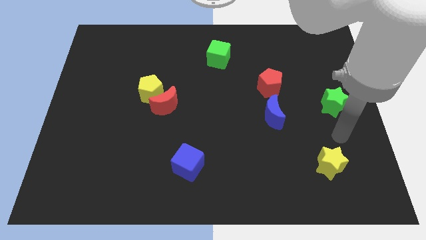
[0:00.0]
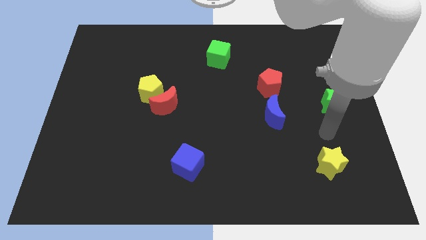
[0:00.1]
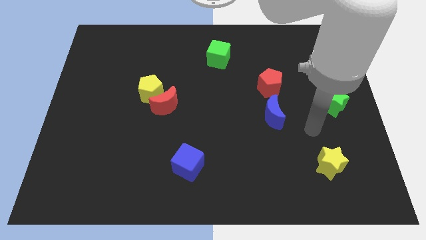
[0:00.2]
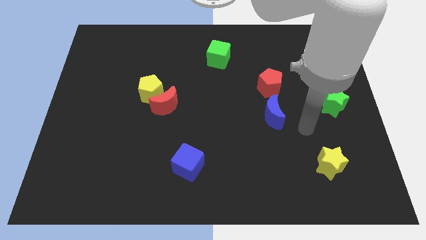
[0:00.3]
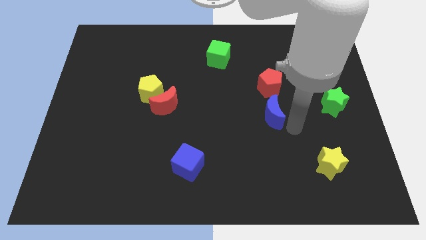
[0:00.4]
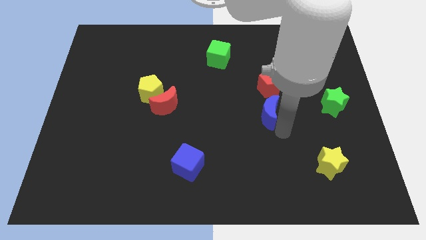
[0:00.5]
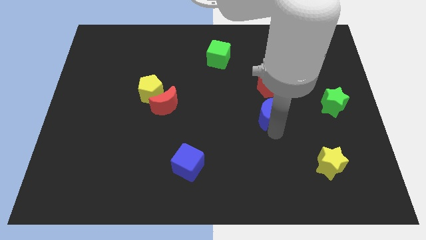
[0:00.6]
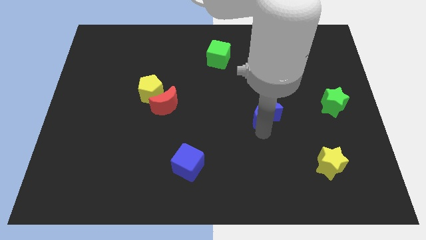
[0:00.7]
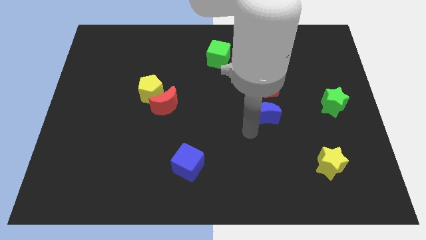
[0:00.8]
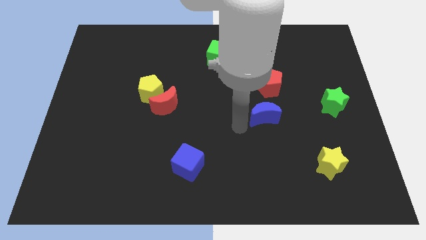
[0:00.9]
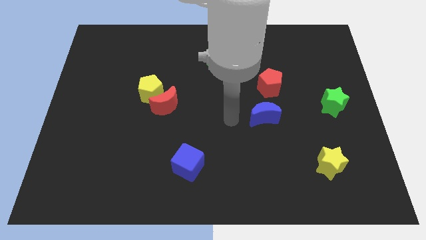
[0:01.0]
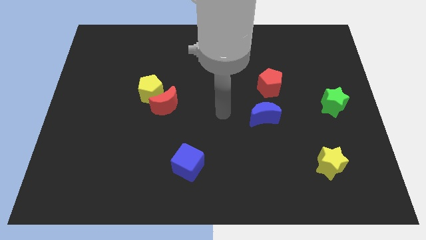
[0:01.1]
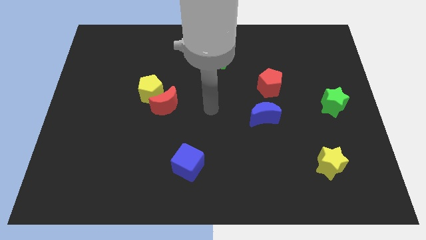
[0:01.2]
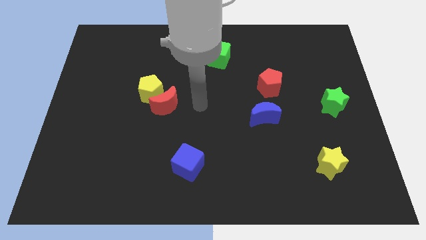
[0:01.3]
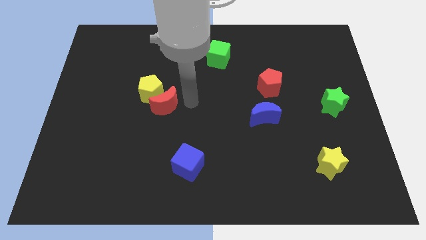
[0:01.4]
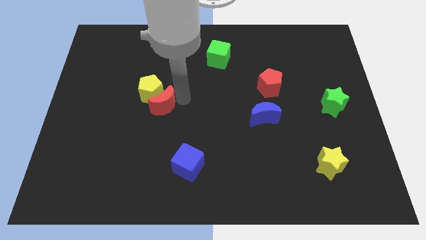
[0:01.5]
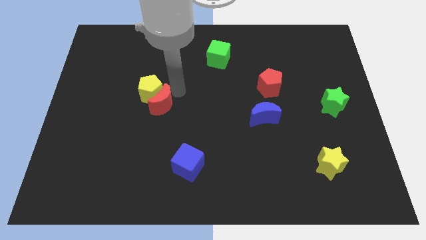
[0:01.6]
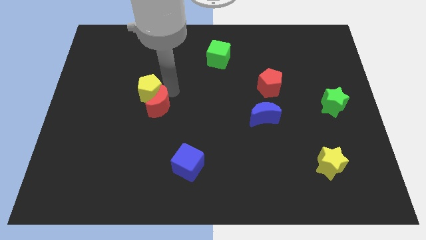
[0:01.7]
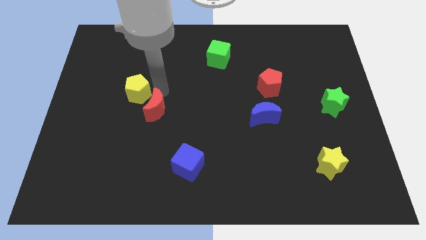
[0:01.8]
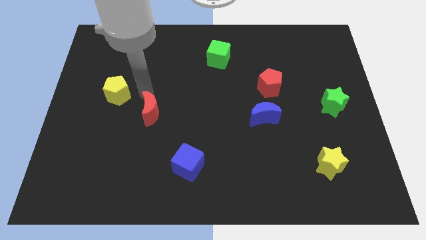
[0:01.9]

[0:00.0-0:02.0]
pull the red moon apart from the yellow pentagon

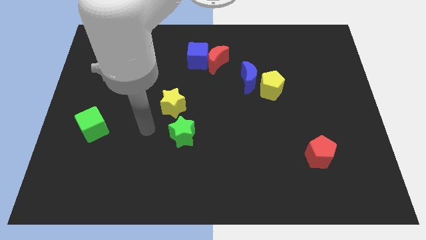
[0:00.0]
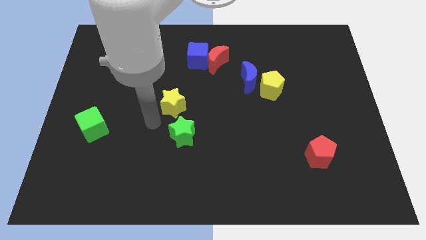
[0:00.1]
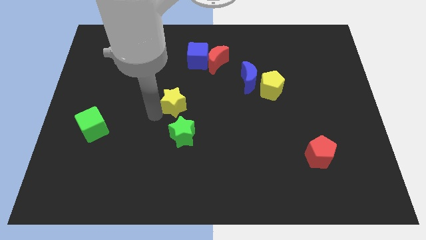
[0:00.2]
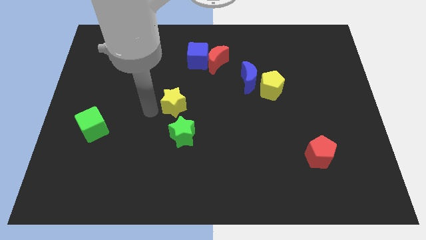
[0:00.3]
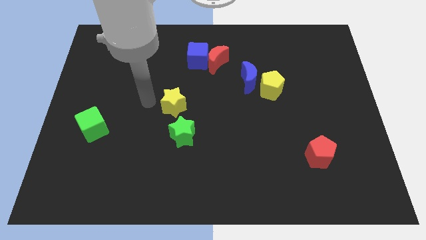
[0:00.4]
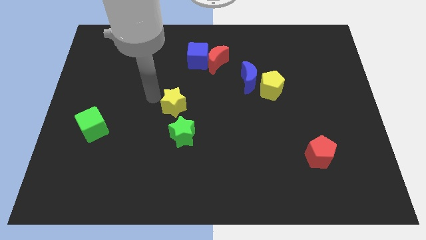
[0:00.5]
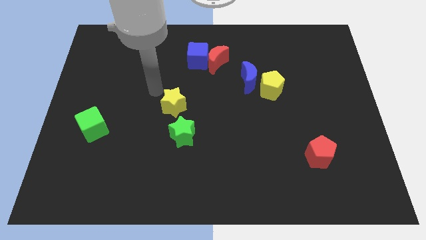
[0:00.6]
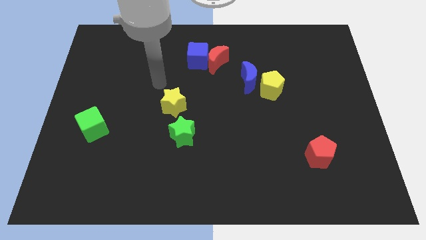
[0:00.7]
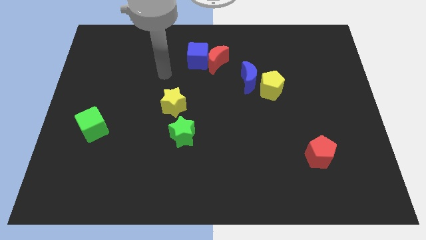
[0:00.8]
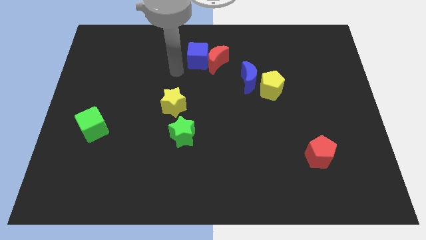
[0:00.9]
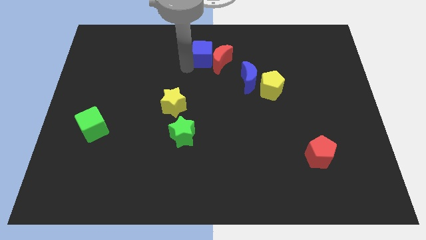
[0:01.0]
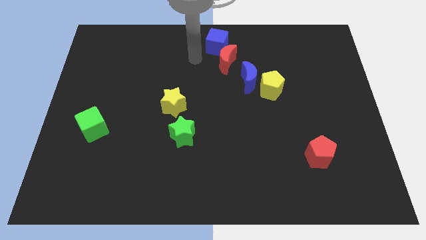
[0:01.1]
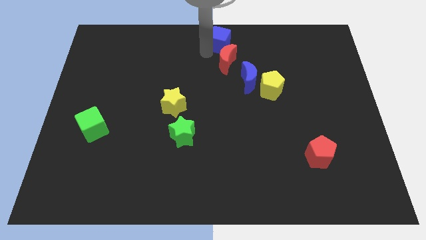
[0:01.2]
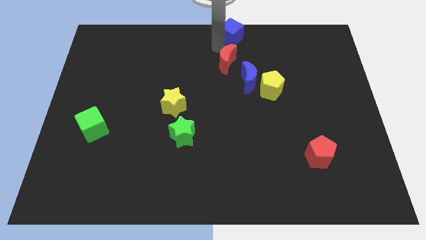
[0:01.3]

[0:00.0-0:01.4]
separate the red moon from the blue cube

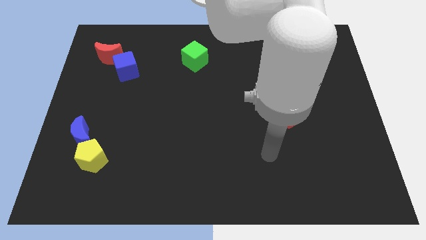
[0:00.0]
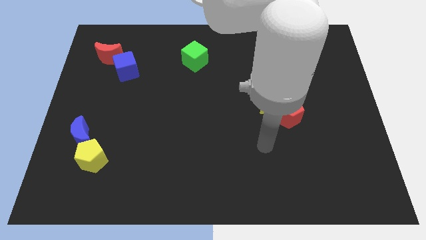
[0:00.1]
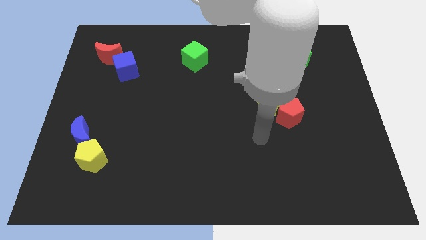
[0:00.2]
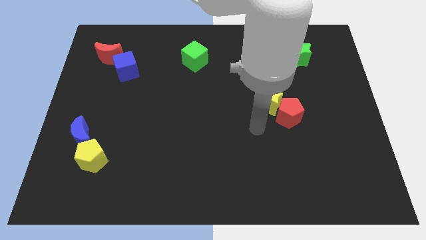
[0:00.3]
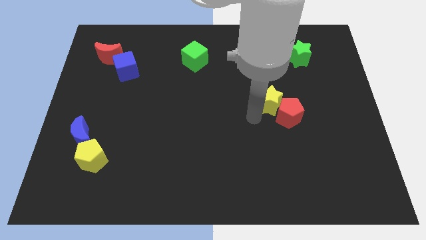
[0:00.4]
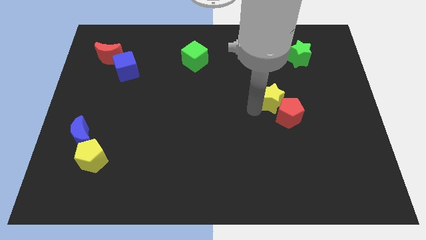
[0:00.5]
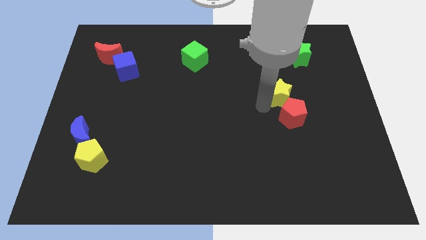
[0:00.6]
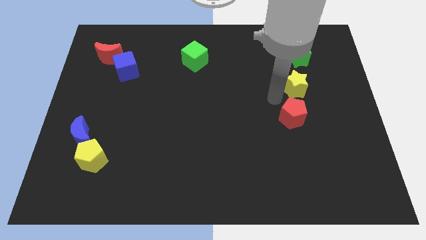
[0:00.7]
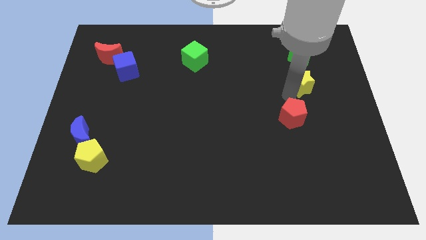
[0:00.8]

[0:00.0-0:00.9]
pull the red pentagon apart from the yellow star

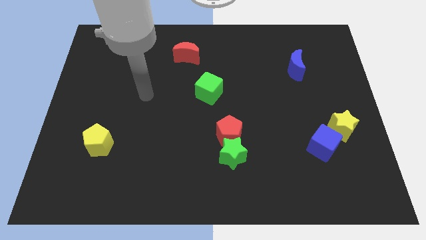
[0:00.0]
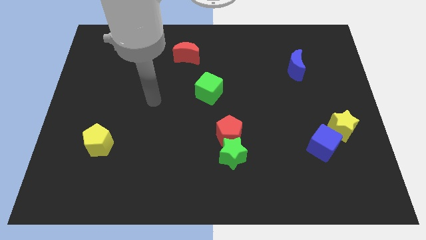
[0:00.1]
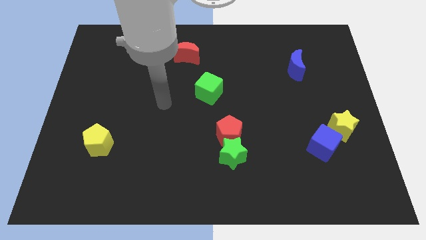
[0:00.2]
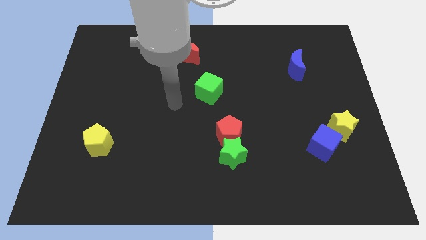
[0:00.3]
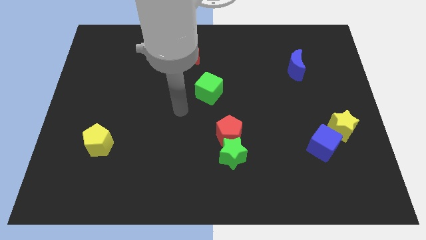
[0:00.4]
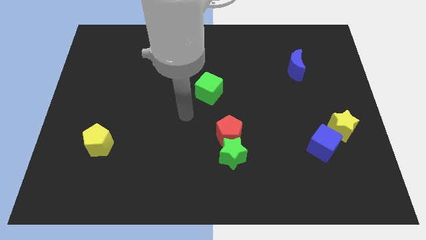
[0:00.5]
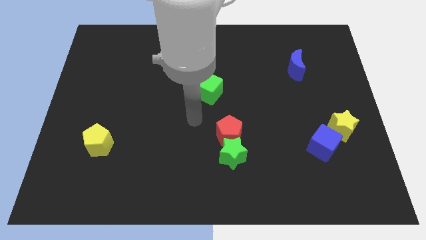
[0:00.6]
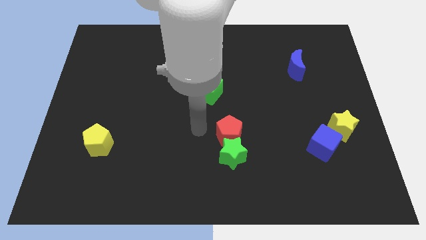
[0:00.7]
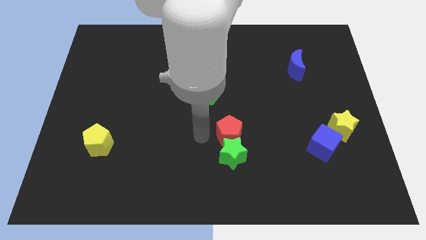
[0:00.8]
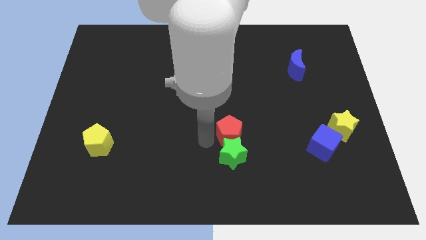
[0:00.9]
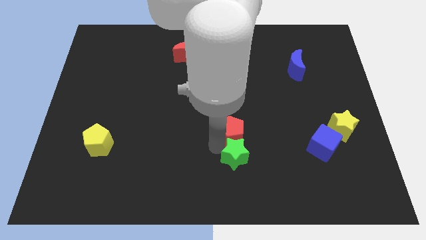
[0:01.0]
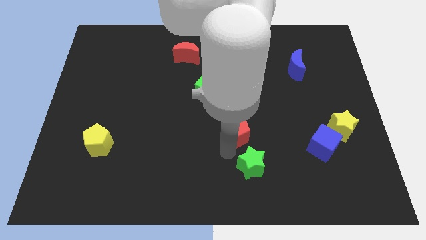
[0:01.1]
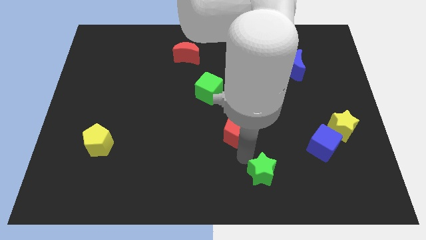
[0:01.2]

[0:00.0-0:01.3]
move the red pentagon away from the green star

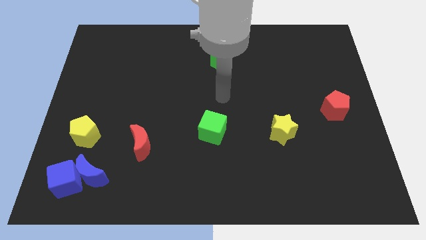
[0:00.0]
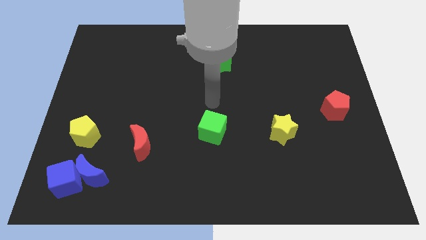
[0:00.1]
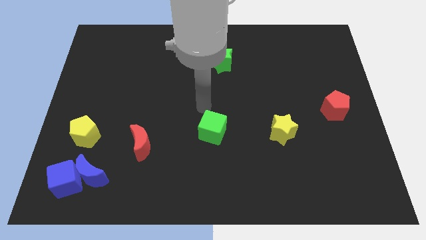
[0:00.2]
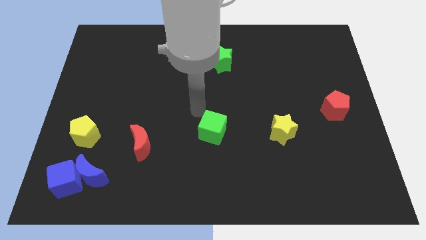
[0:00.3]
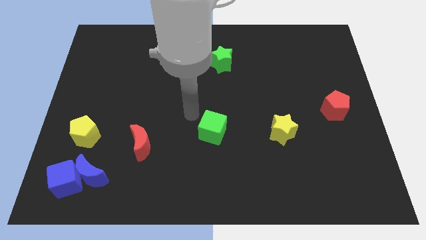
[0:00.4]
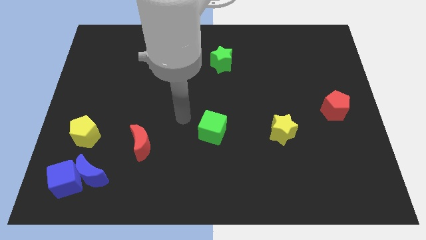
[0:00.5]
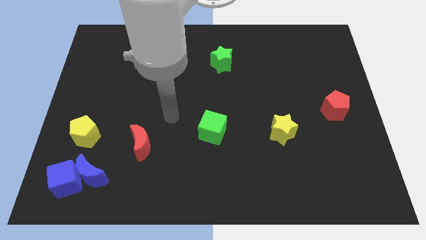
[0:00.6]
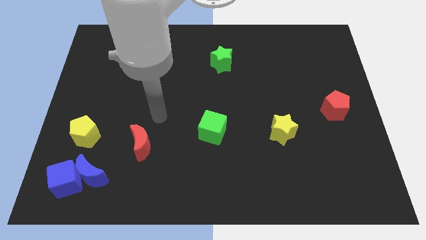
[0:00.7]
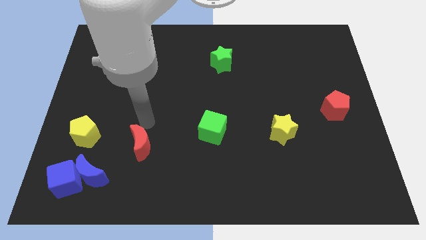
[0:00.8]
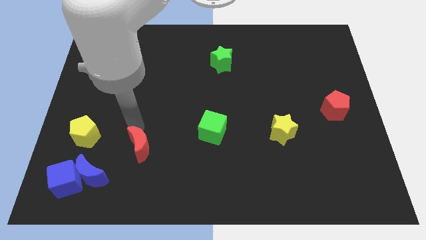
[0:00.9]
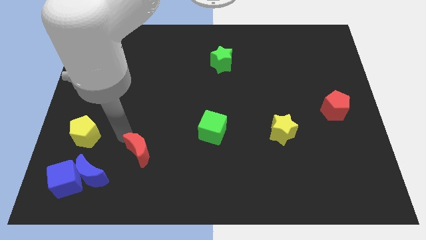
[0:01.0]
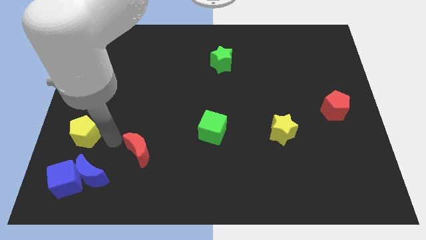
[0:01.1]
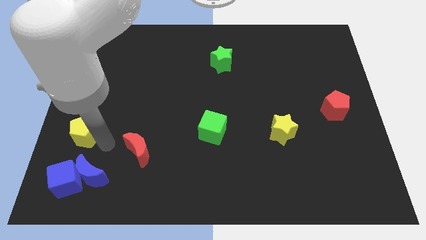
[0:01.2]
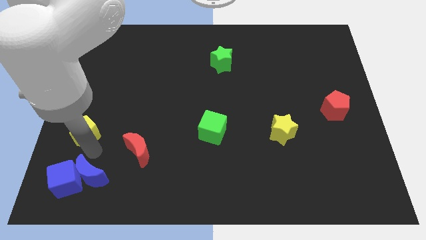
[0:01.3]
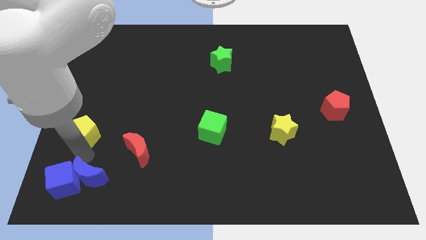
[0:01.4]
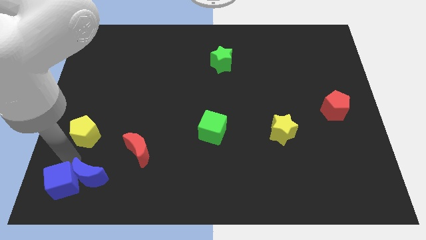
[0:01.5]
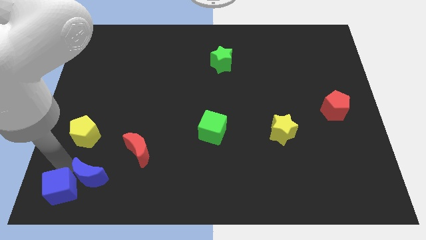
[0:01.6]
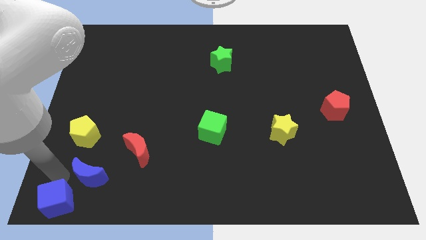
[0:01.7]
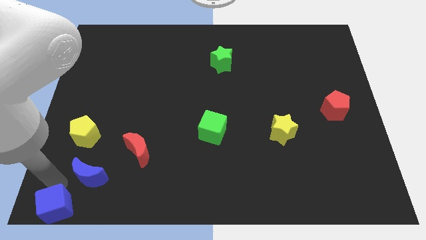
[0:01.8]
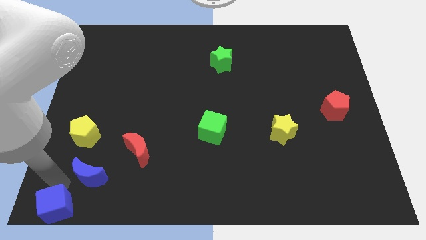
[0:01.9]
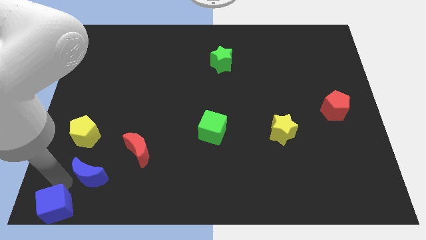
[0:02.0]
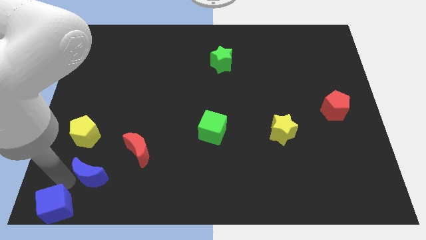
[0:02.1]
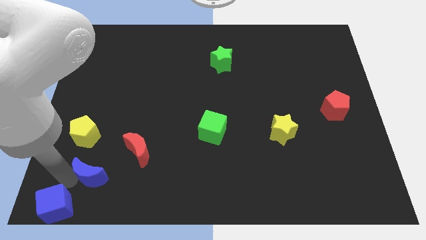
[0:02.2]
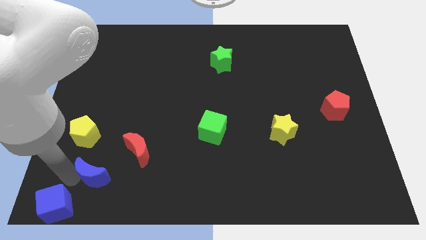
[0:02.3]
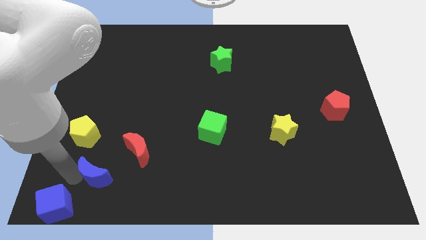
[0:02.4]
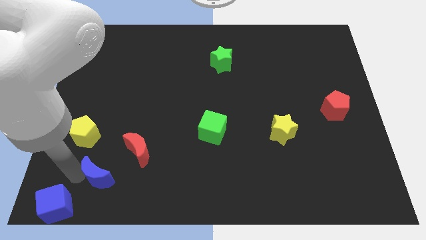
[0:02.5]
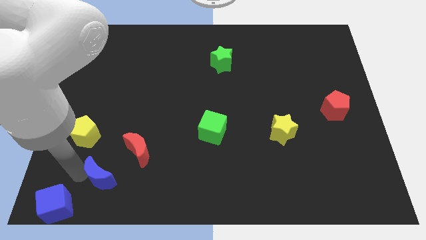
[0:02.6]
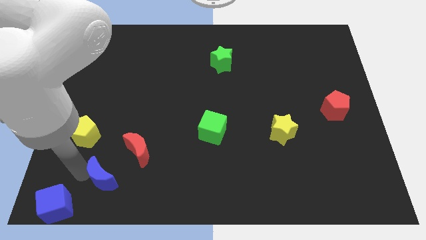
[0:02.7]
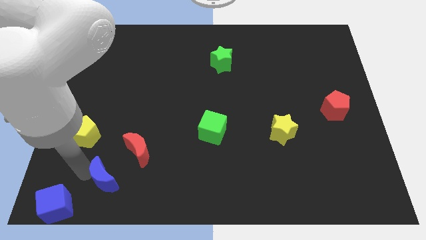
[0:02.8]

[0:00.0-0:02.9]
move the blue moon away from the blue cube

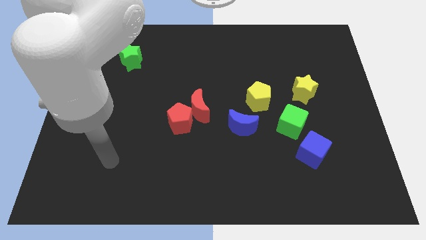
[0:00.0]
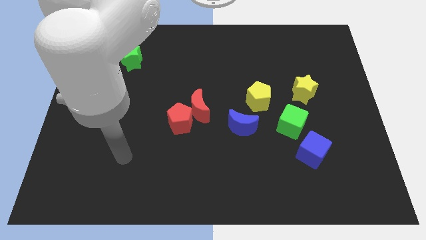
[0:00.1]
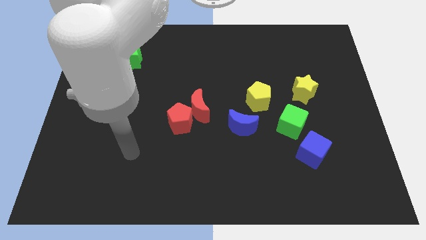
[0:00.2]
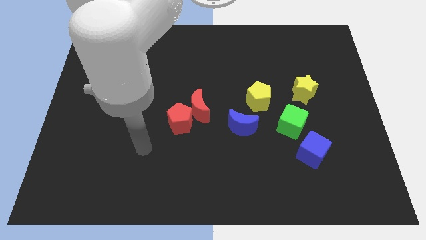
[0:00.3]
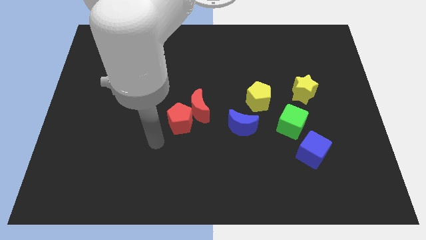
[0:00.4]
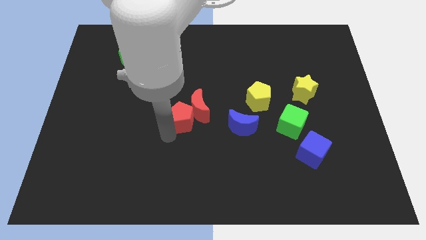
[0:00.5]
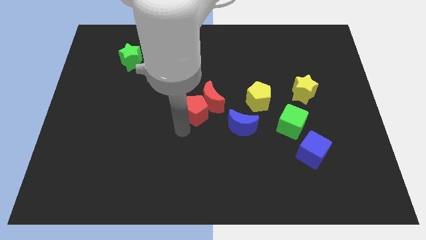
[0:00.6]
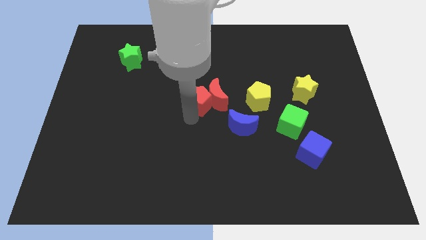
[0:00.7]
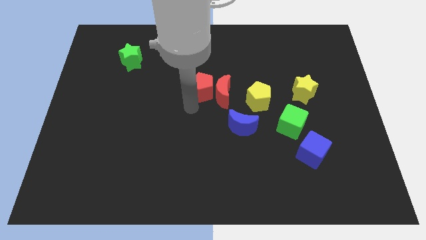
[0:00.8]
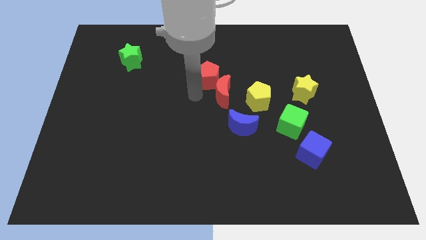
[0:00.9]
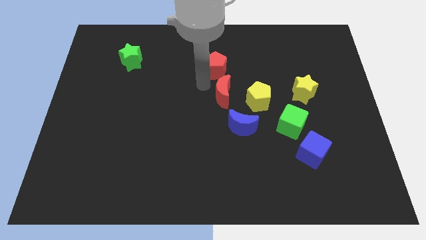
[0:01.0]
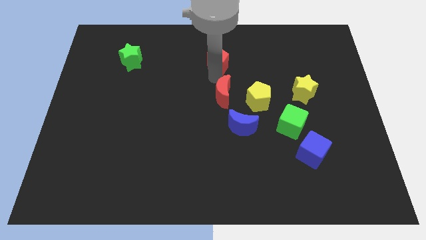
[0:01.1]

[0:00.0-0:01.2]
move the red moon away from the red pentagon
